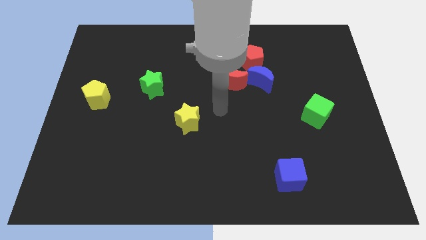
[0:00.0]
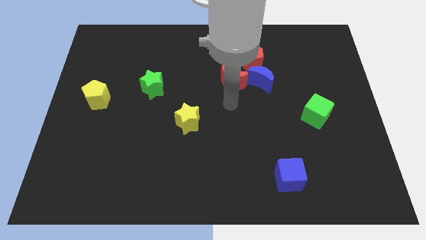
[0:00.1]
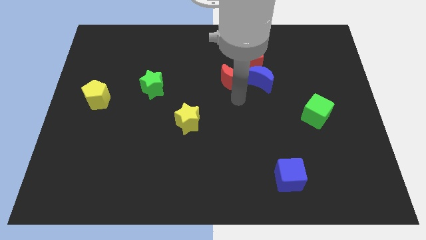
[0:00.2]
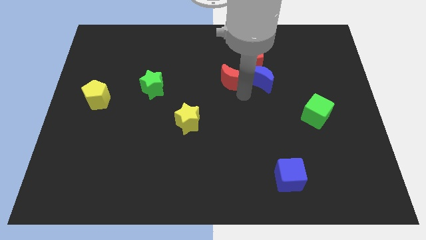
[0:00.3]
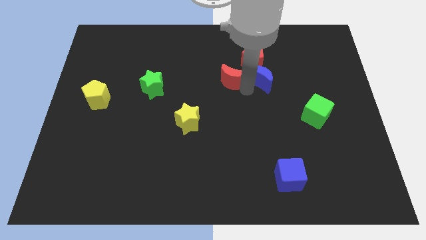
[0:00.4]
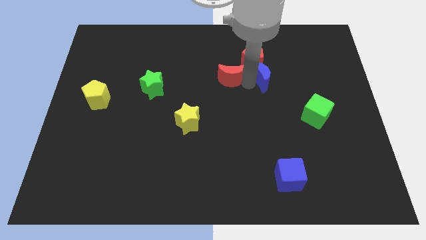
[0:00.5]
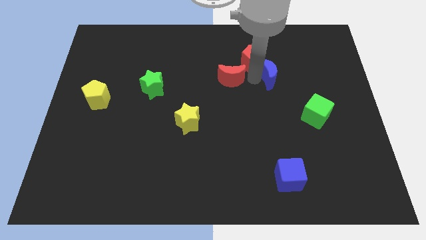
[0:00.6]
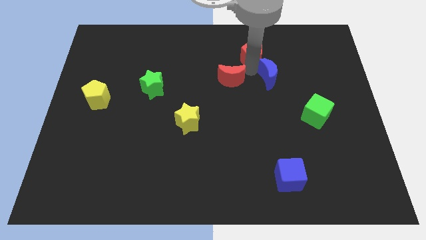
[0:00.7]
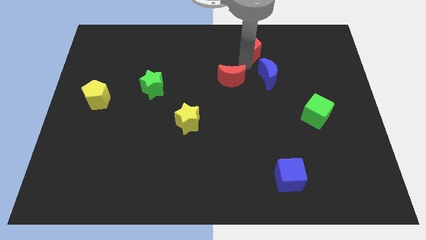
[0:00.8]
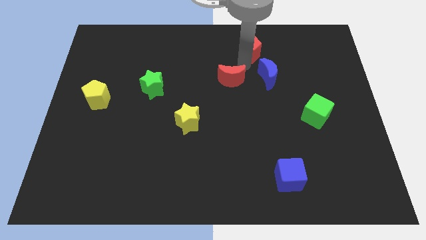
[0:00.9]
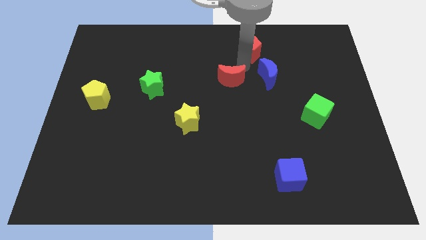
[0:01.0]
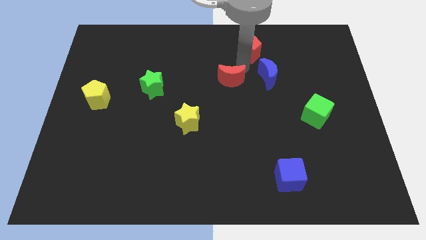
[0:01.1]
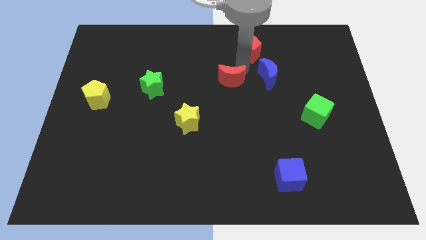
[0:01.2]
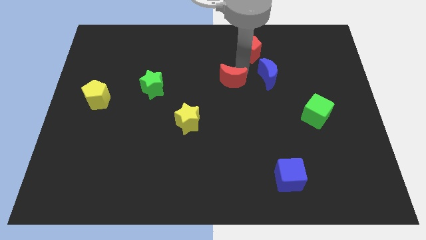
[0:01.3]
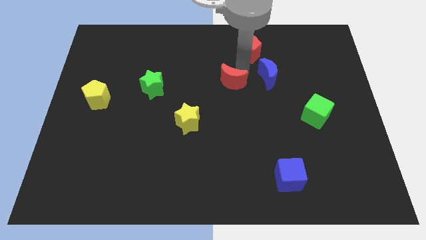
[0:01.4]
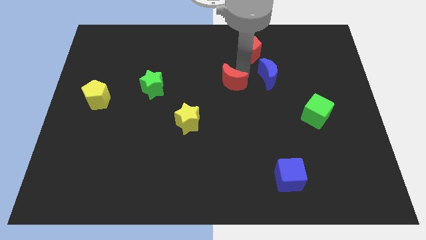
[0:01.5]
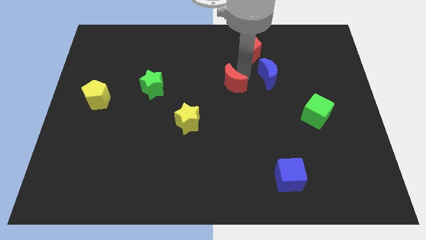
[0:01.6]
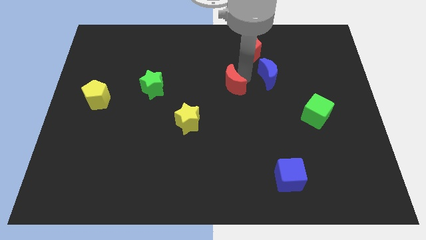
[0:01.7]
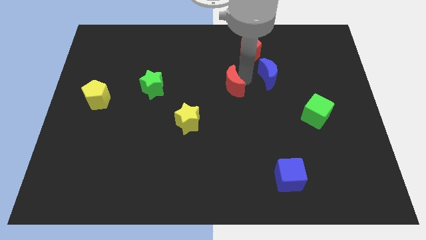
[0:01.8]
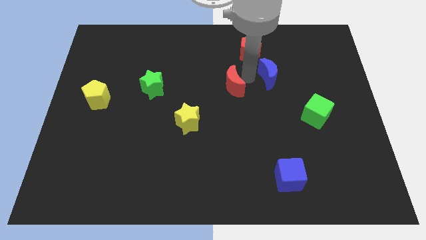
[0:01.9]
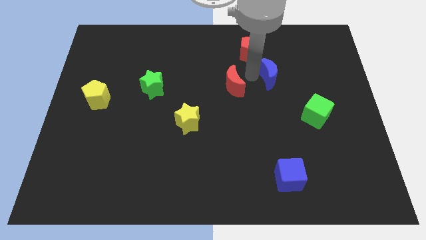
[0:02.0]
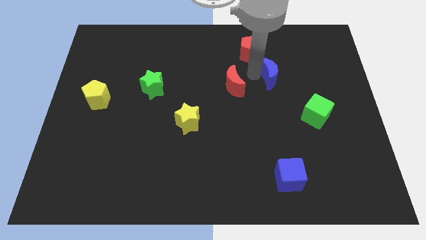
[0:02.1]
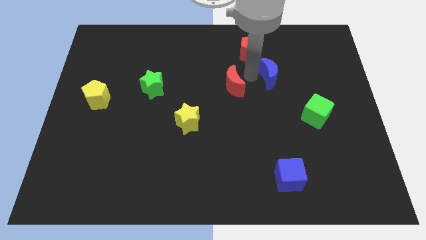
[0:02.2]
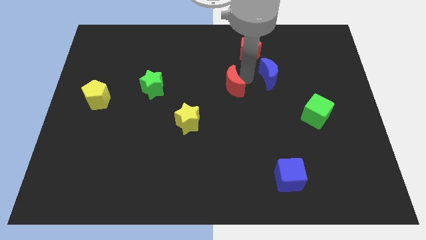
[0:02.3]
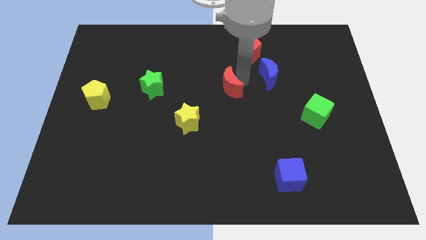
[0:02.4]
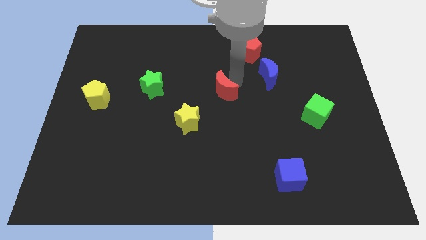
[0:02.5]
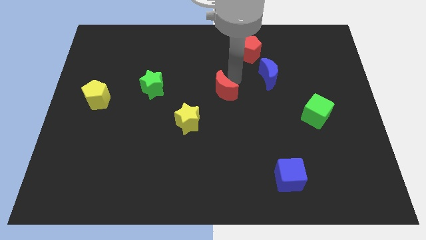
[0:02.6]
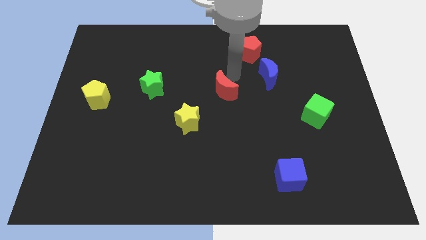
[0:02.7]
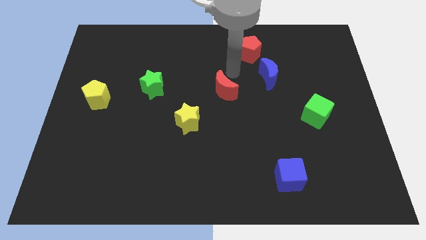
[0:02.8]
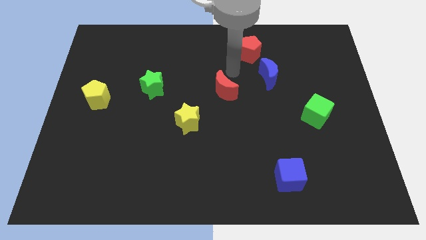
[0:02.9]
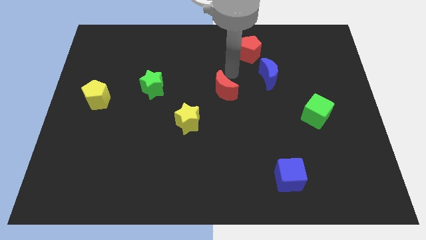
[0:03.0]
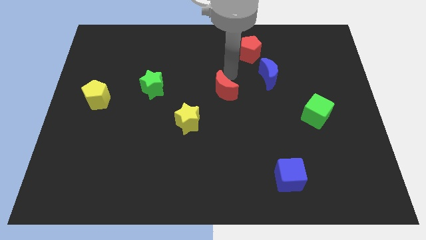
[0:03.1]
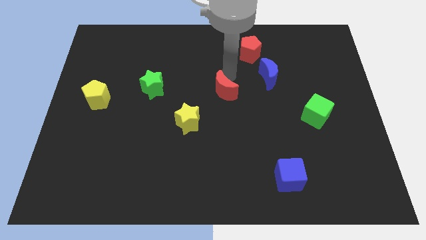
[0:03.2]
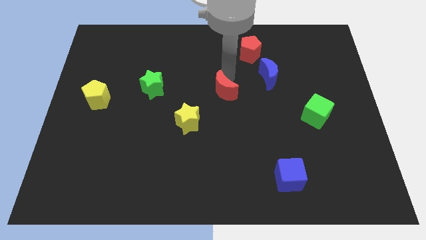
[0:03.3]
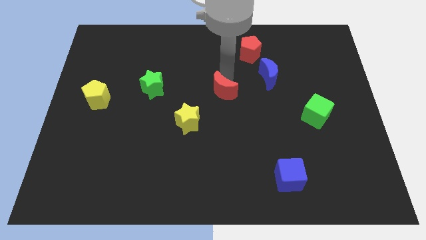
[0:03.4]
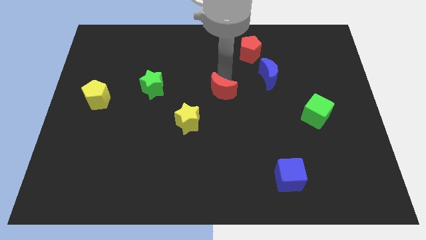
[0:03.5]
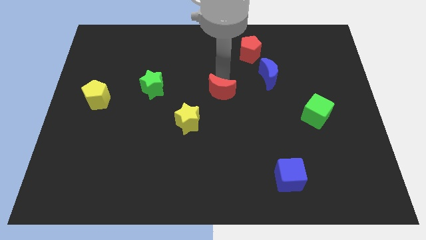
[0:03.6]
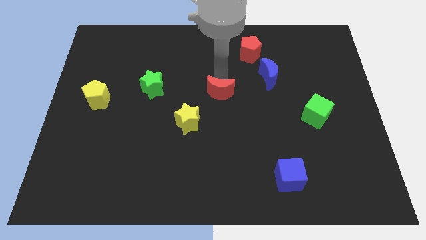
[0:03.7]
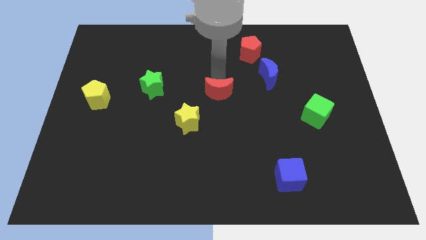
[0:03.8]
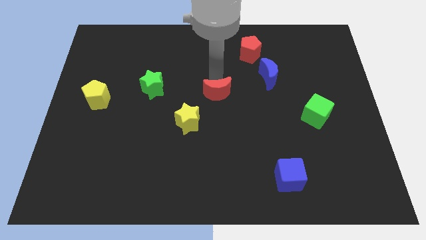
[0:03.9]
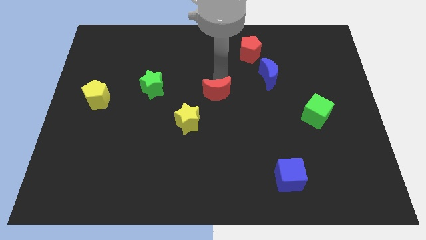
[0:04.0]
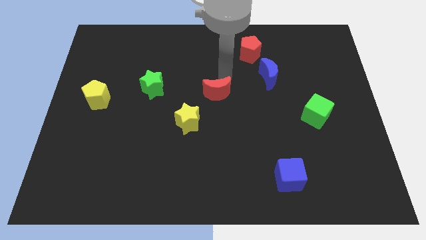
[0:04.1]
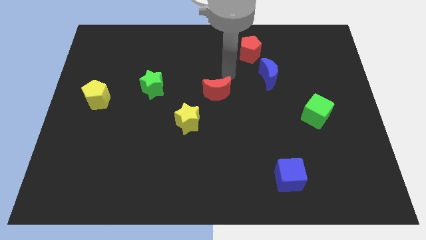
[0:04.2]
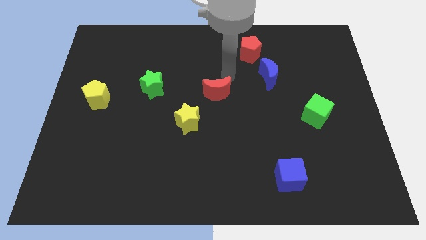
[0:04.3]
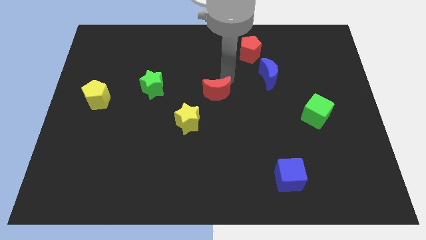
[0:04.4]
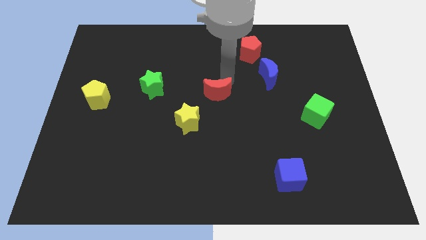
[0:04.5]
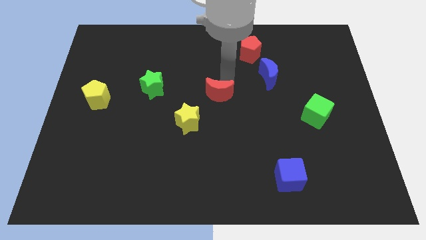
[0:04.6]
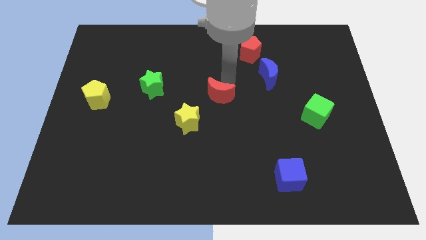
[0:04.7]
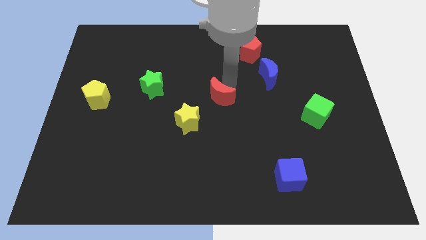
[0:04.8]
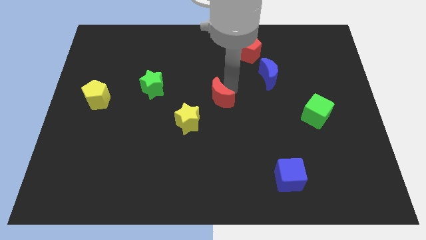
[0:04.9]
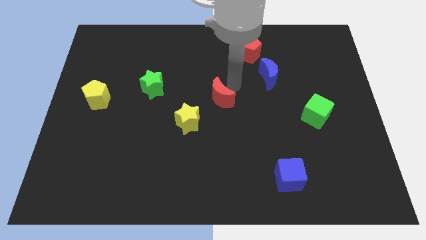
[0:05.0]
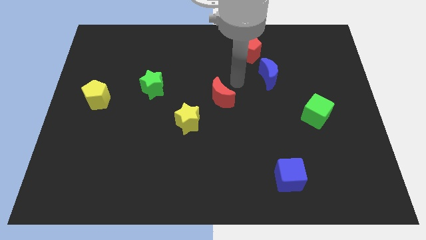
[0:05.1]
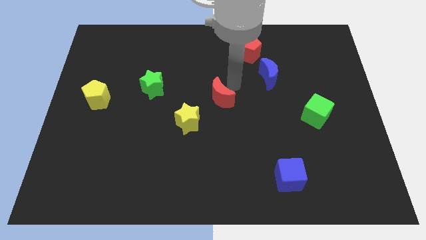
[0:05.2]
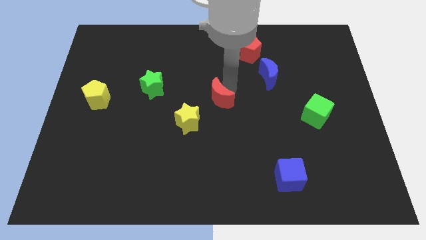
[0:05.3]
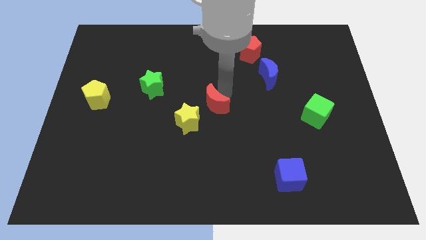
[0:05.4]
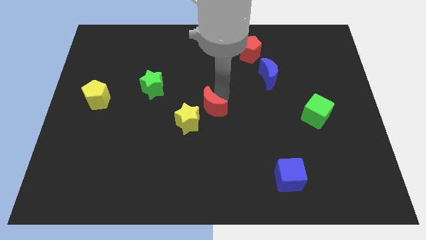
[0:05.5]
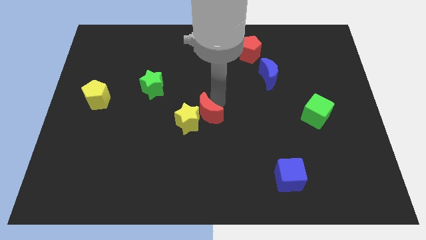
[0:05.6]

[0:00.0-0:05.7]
move the red moon to the yellow star

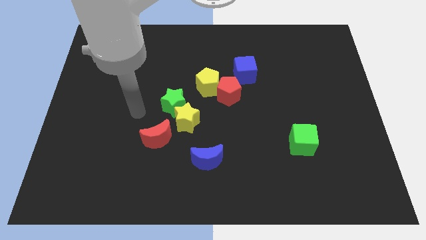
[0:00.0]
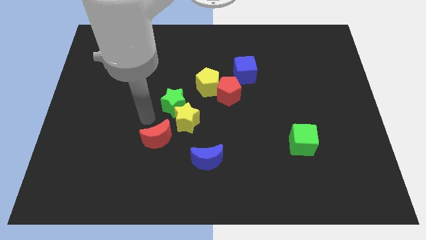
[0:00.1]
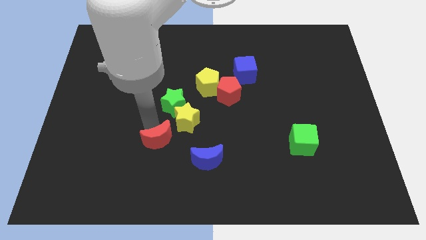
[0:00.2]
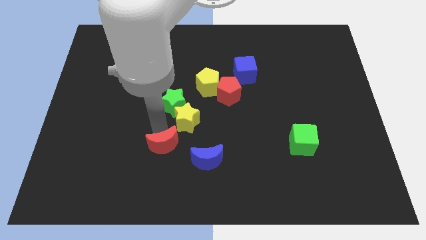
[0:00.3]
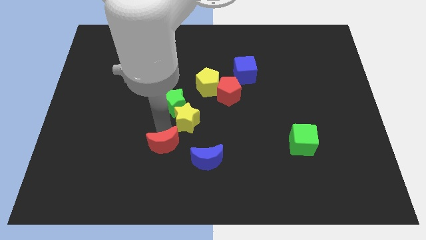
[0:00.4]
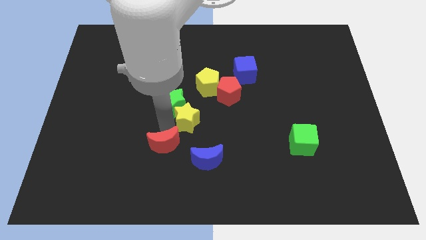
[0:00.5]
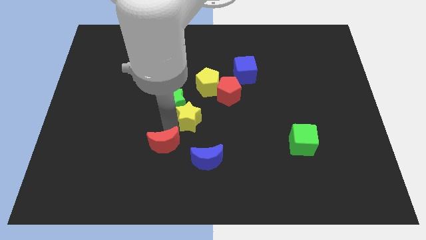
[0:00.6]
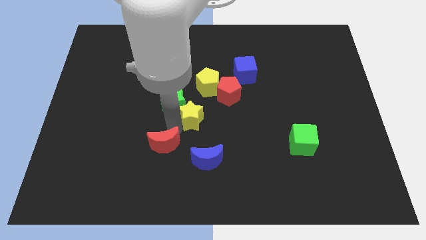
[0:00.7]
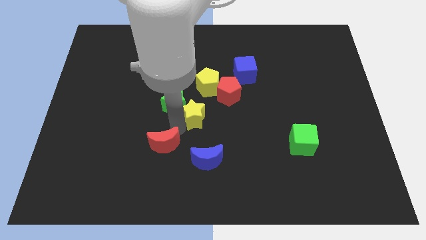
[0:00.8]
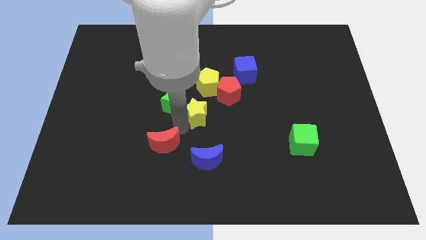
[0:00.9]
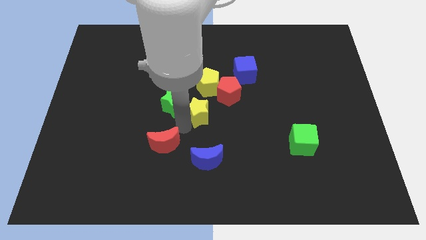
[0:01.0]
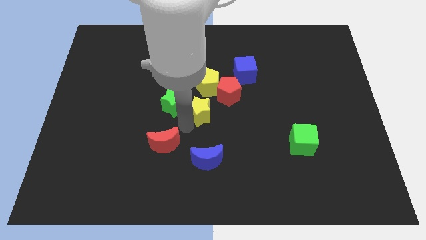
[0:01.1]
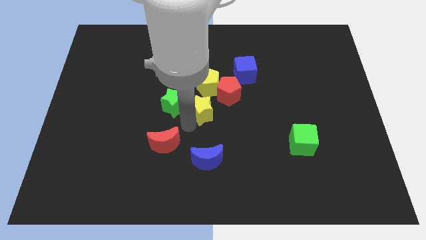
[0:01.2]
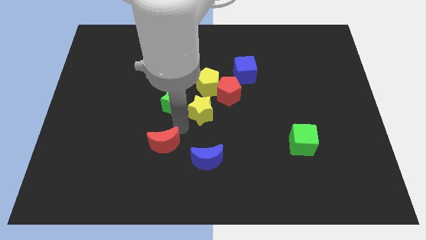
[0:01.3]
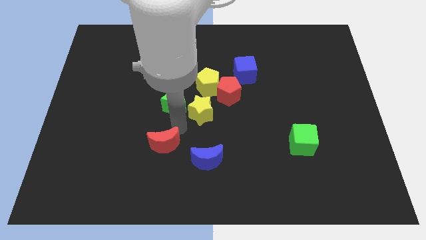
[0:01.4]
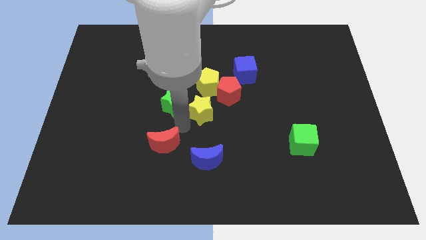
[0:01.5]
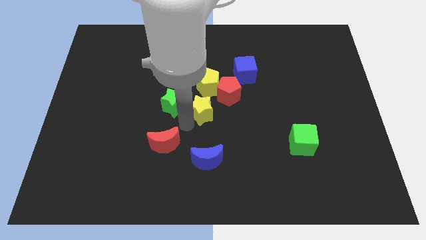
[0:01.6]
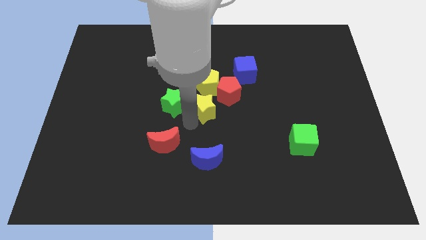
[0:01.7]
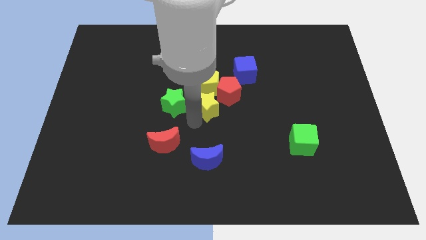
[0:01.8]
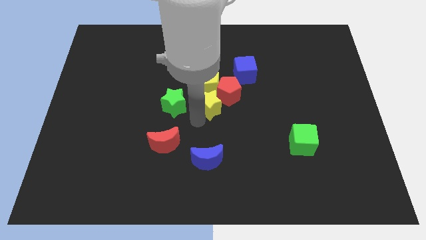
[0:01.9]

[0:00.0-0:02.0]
slide the yellow star towards the red pentagon
